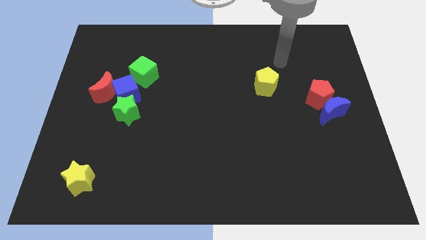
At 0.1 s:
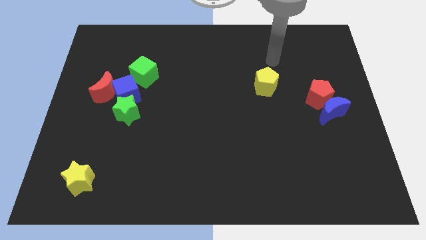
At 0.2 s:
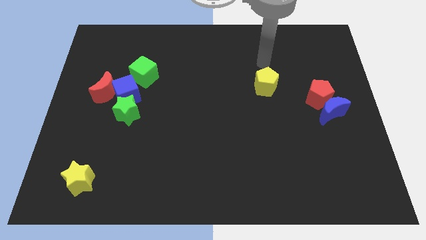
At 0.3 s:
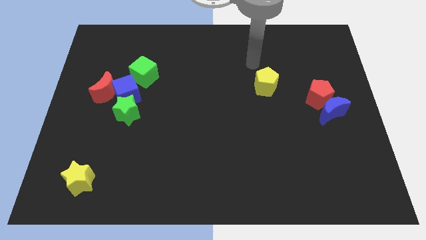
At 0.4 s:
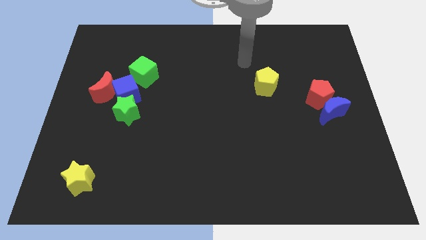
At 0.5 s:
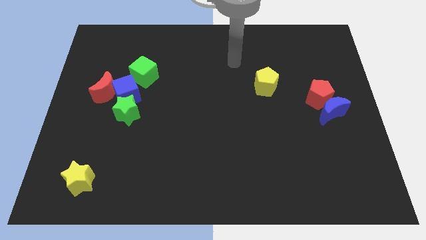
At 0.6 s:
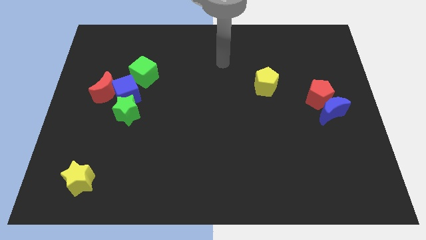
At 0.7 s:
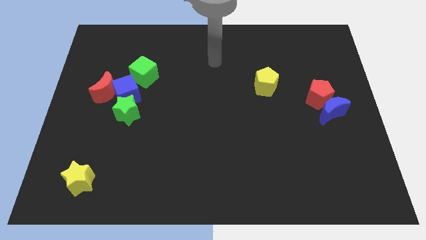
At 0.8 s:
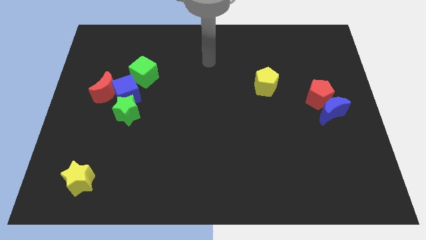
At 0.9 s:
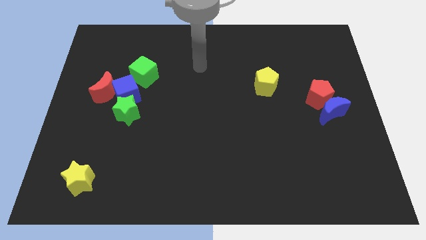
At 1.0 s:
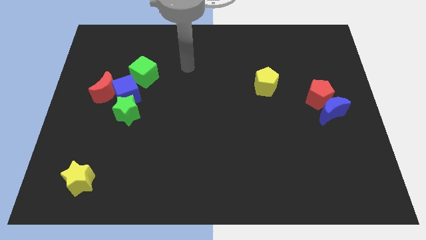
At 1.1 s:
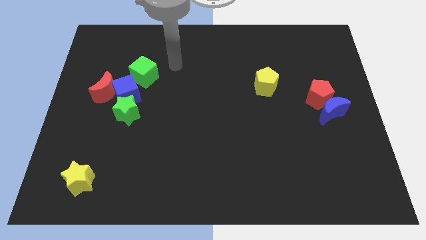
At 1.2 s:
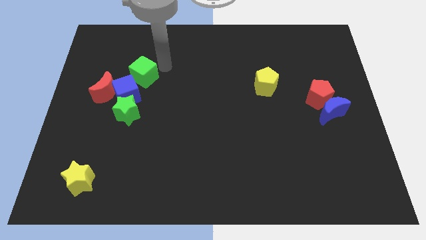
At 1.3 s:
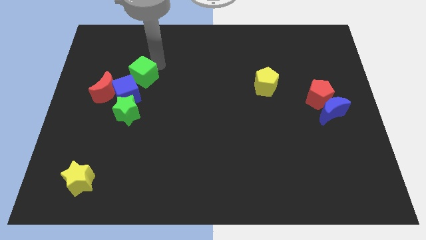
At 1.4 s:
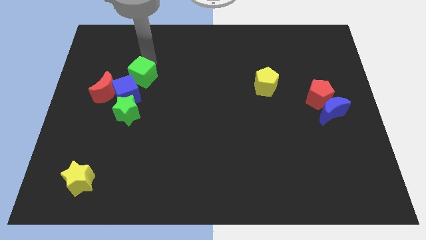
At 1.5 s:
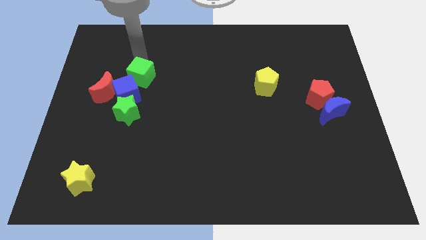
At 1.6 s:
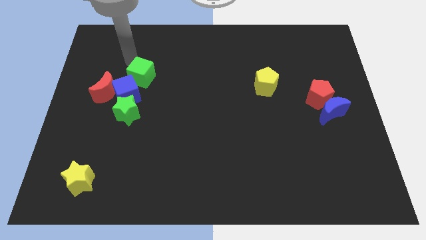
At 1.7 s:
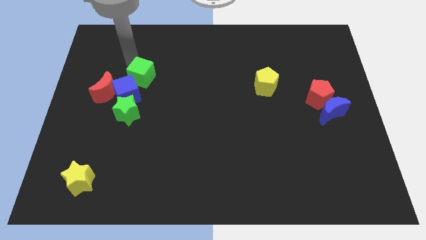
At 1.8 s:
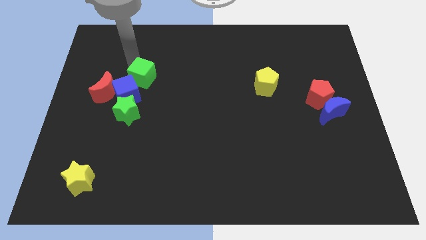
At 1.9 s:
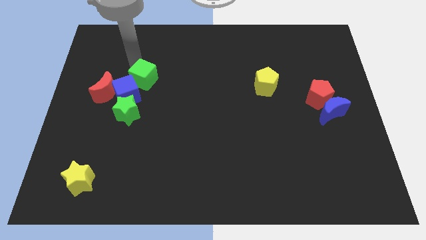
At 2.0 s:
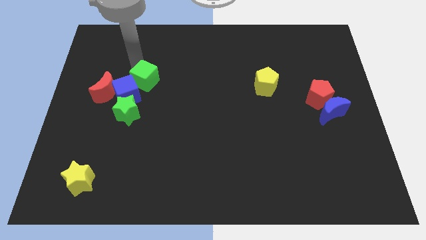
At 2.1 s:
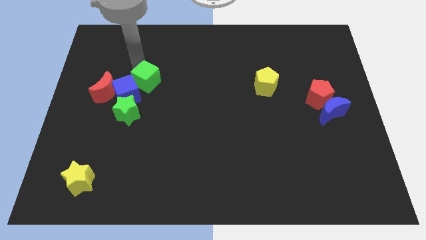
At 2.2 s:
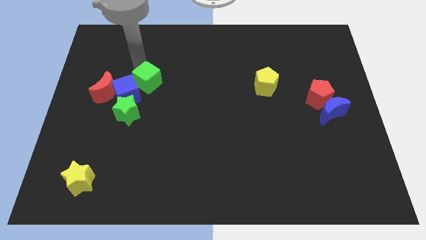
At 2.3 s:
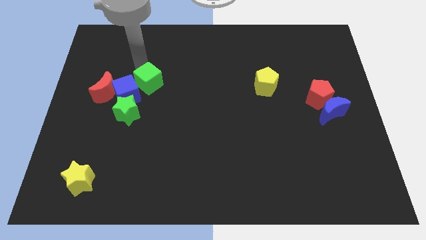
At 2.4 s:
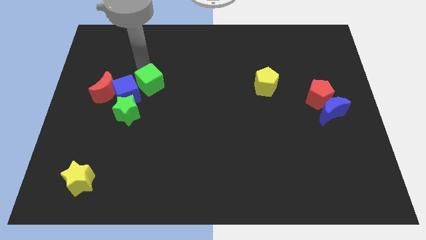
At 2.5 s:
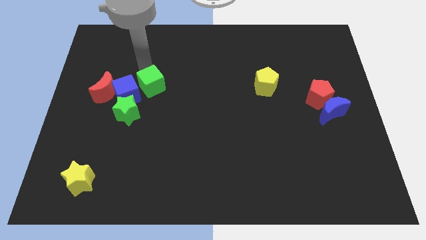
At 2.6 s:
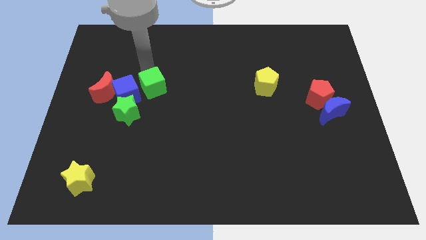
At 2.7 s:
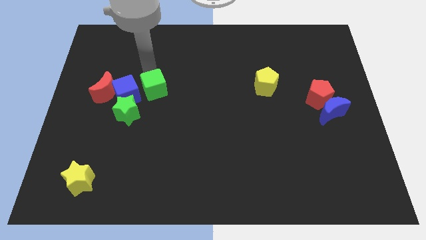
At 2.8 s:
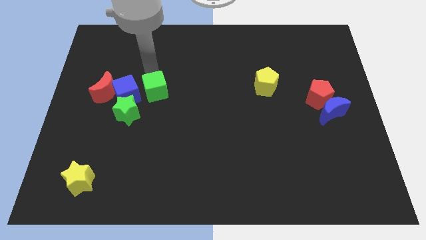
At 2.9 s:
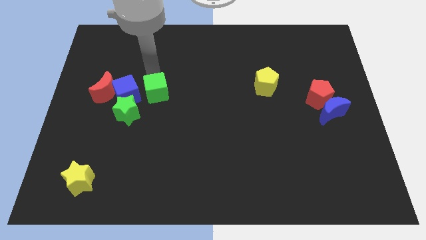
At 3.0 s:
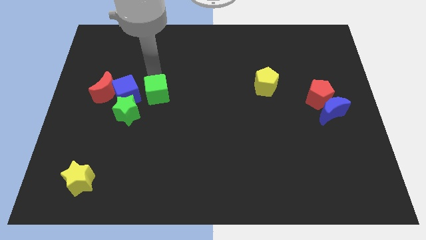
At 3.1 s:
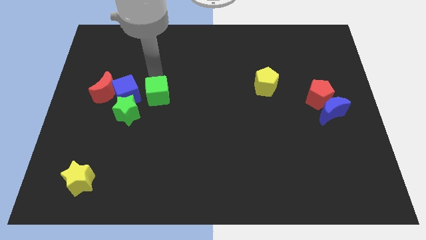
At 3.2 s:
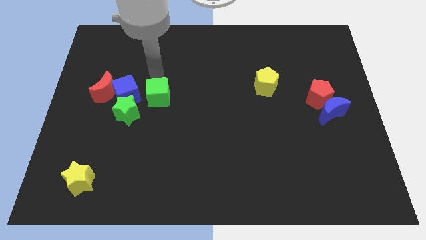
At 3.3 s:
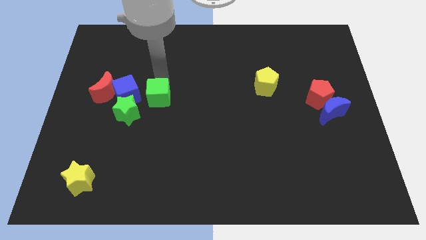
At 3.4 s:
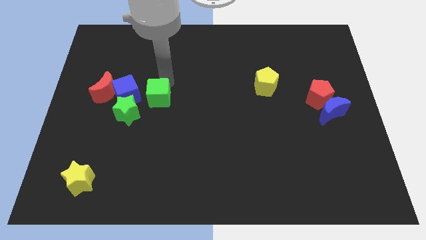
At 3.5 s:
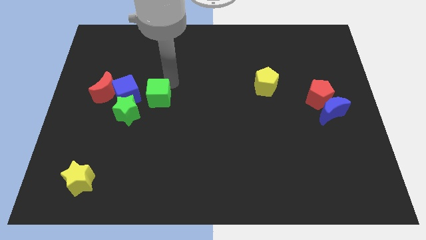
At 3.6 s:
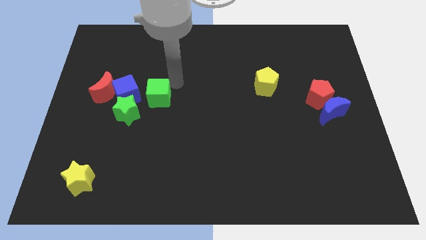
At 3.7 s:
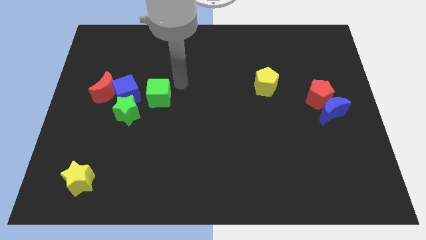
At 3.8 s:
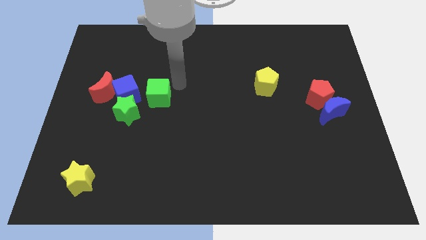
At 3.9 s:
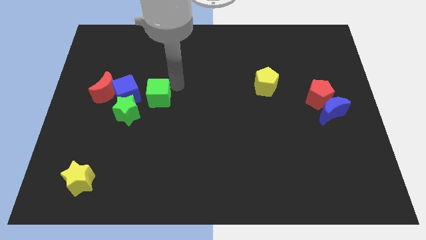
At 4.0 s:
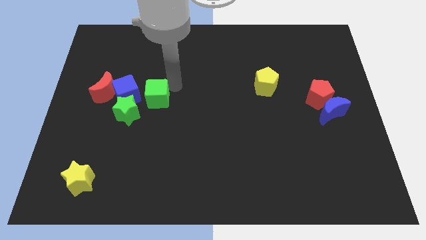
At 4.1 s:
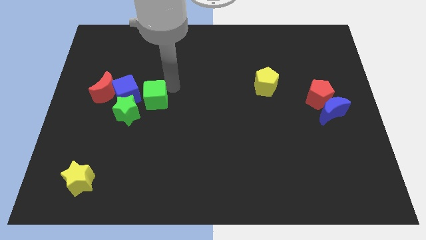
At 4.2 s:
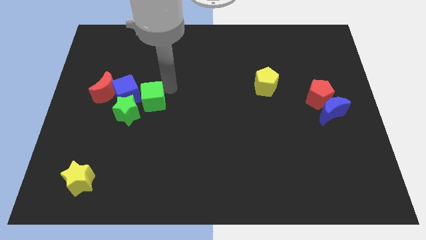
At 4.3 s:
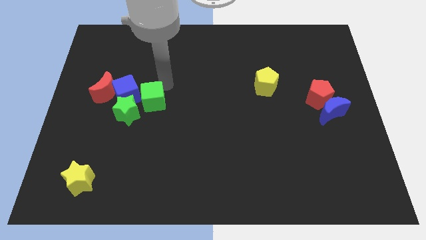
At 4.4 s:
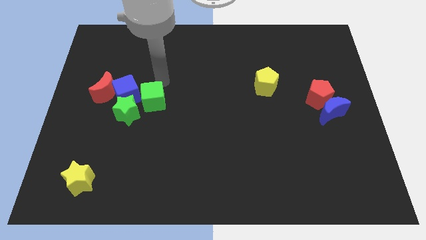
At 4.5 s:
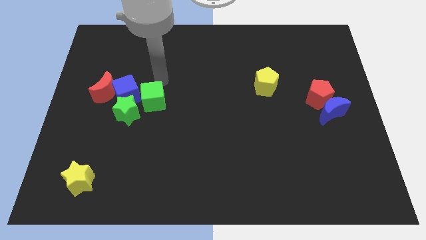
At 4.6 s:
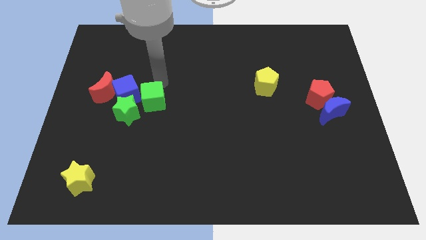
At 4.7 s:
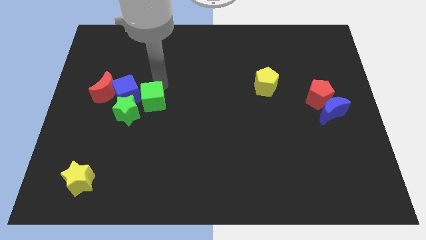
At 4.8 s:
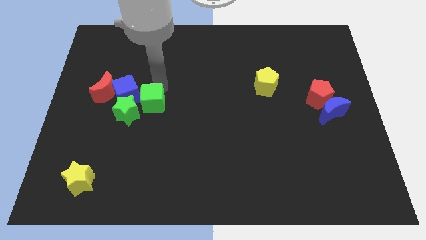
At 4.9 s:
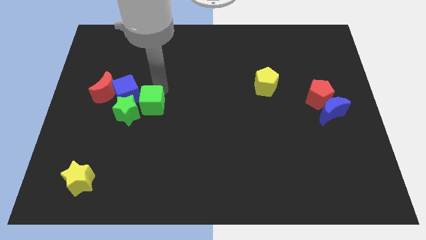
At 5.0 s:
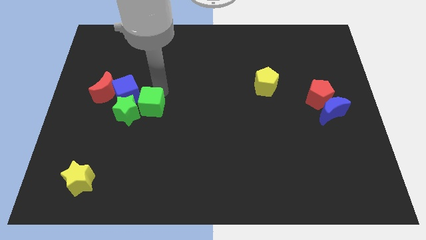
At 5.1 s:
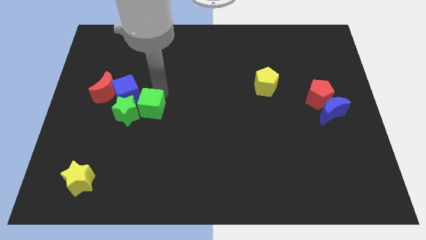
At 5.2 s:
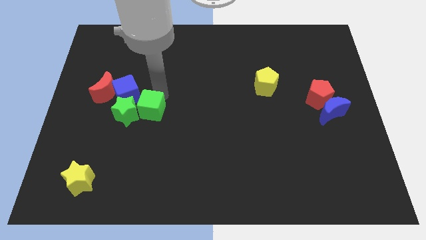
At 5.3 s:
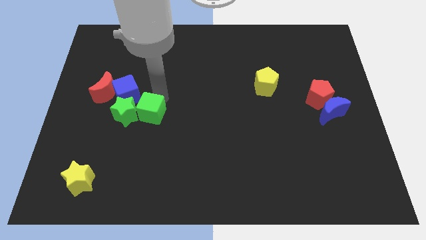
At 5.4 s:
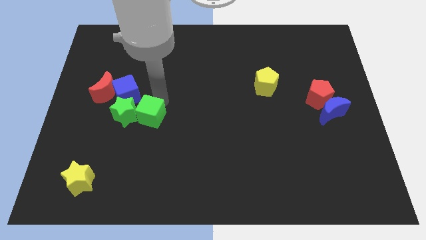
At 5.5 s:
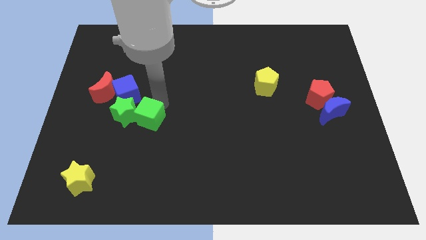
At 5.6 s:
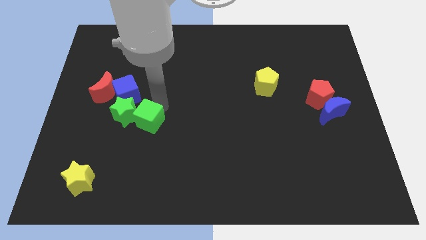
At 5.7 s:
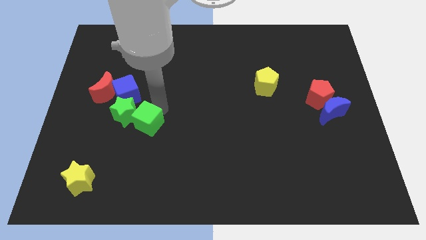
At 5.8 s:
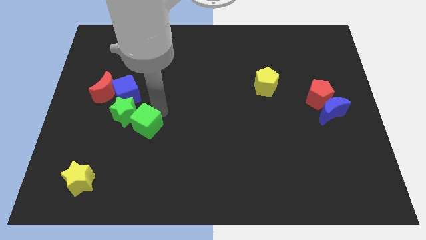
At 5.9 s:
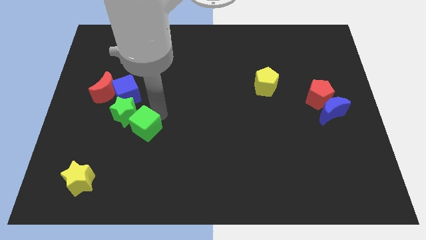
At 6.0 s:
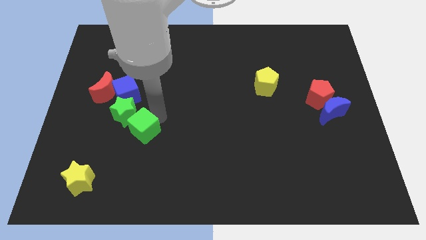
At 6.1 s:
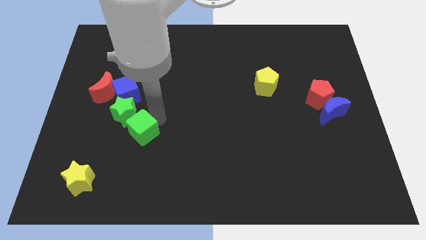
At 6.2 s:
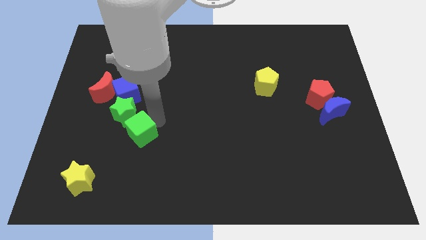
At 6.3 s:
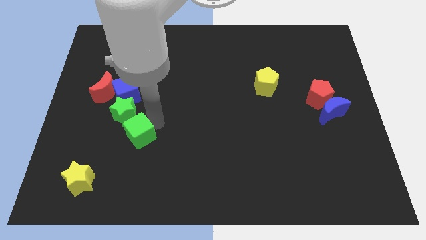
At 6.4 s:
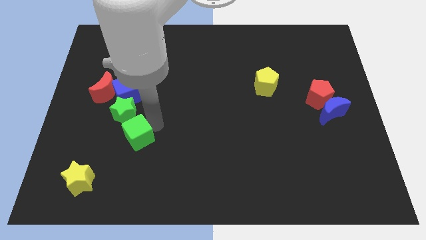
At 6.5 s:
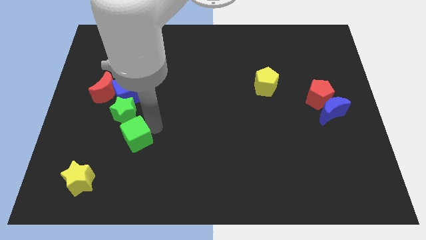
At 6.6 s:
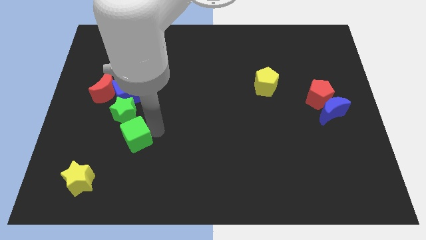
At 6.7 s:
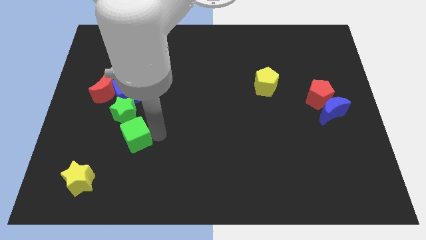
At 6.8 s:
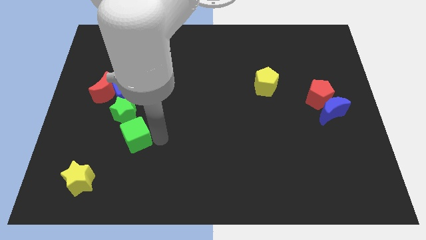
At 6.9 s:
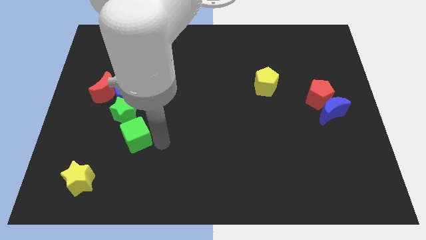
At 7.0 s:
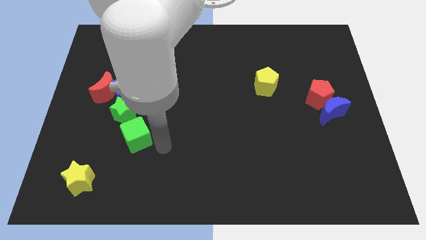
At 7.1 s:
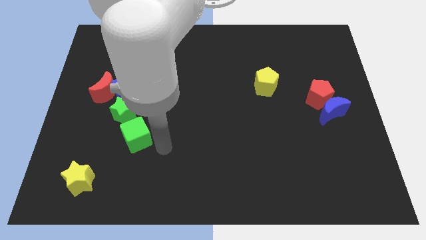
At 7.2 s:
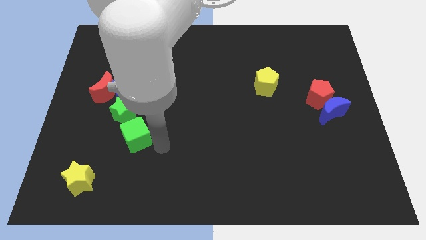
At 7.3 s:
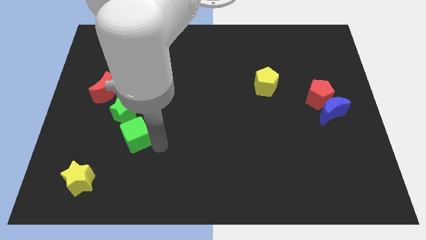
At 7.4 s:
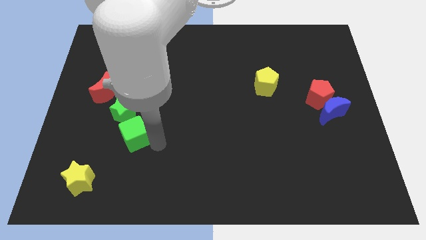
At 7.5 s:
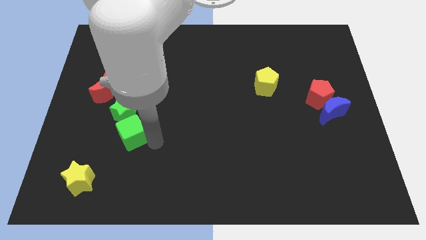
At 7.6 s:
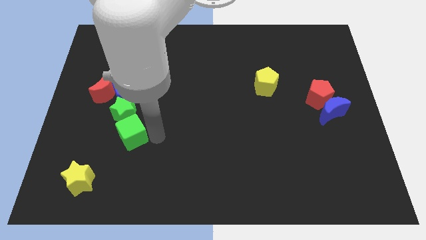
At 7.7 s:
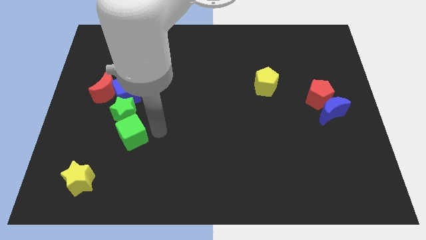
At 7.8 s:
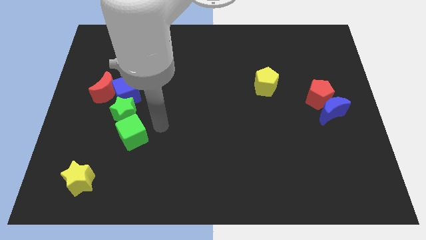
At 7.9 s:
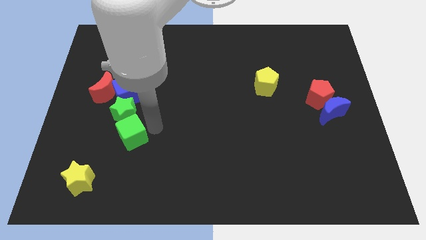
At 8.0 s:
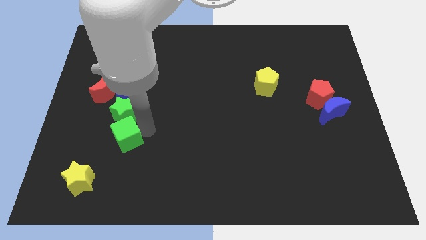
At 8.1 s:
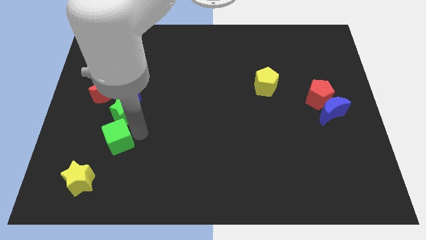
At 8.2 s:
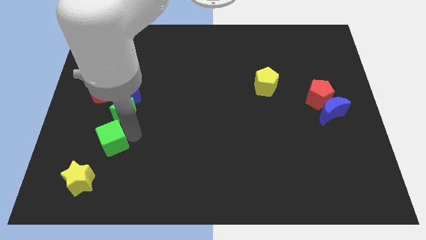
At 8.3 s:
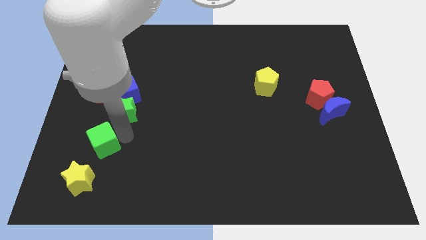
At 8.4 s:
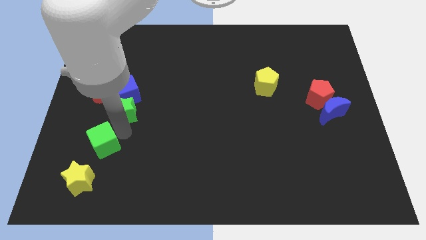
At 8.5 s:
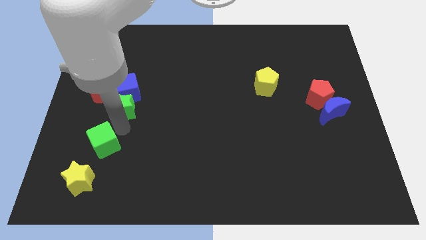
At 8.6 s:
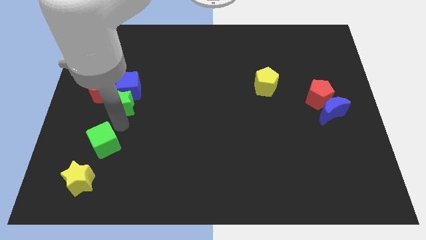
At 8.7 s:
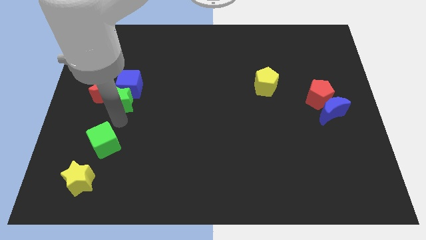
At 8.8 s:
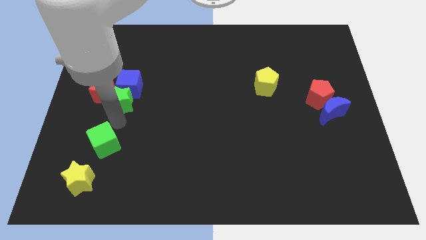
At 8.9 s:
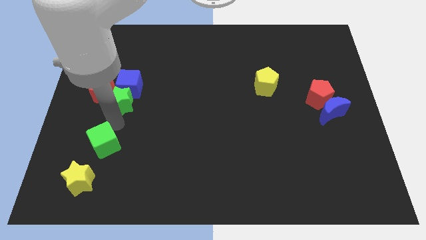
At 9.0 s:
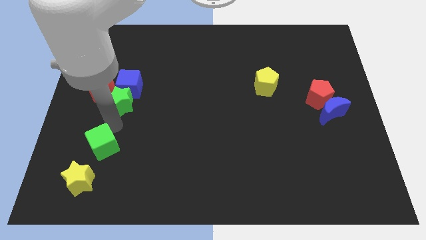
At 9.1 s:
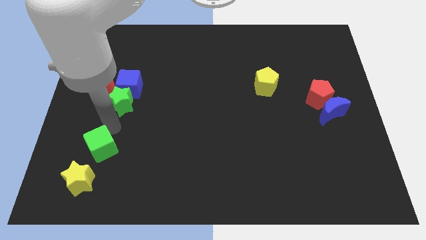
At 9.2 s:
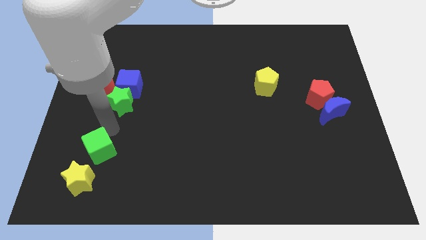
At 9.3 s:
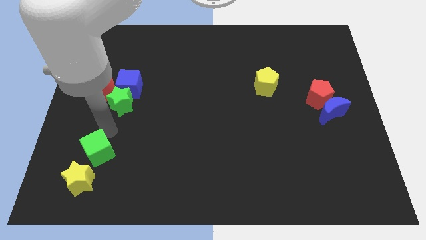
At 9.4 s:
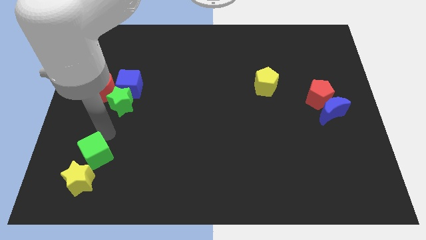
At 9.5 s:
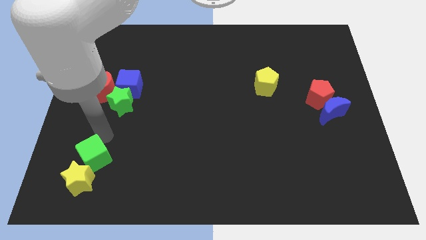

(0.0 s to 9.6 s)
put the green cube close to the yellow star
